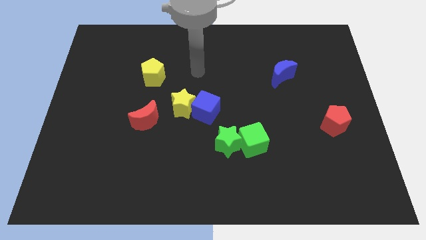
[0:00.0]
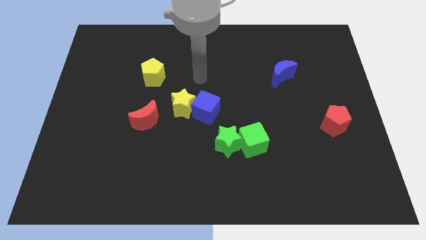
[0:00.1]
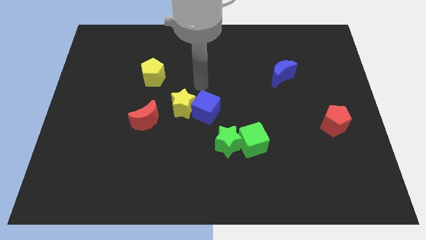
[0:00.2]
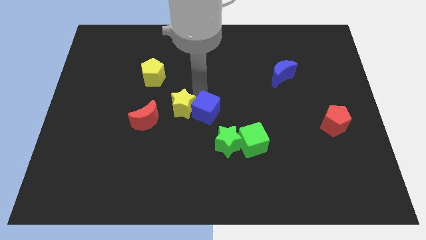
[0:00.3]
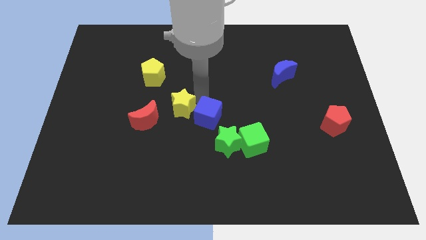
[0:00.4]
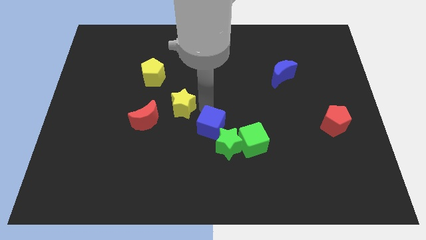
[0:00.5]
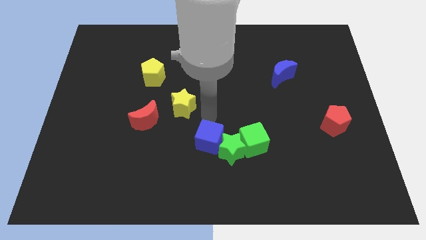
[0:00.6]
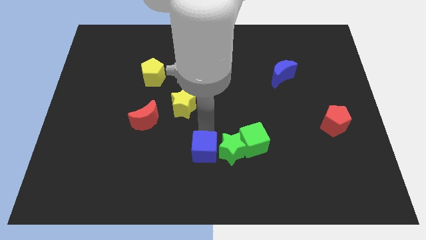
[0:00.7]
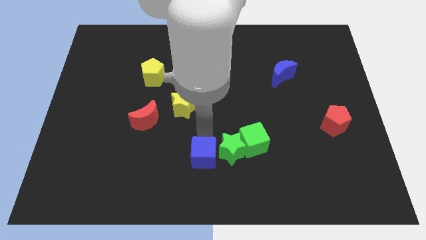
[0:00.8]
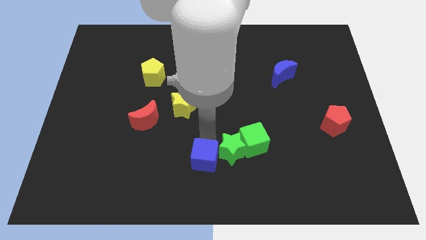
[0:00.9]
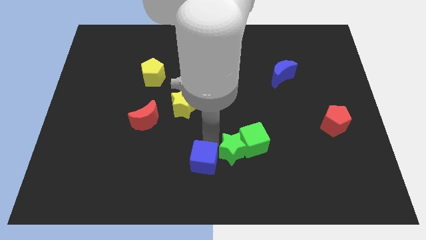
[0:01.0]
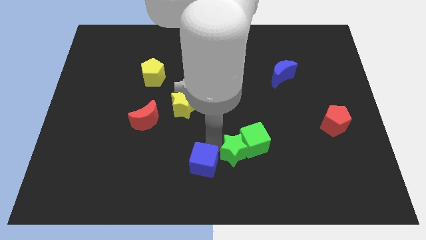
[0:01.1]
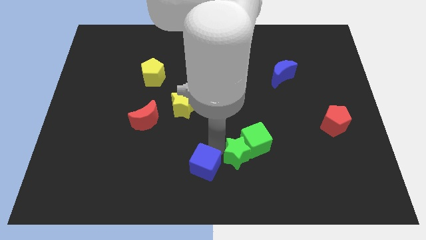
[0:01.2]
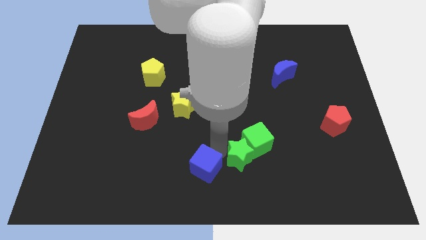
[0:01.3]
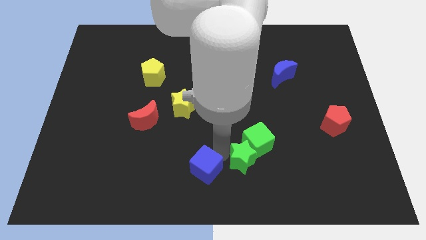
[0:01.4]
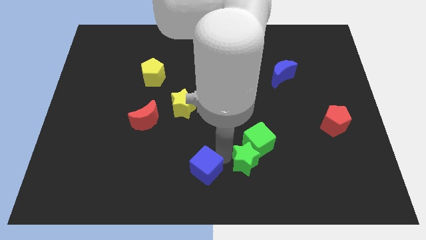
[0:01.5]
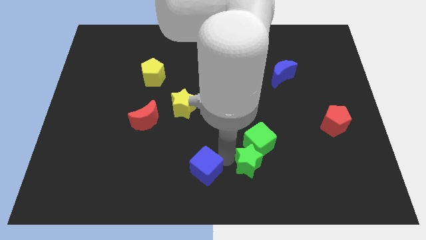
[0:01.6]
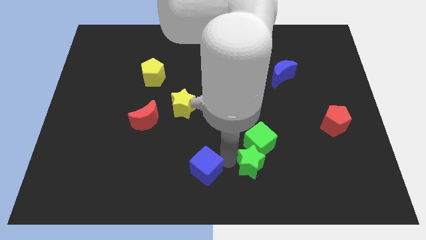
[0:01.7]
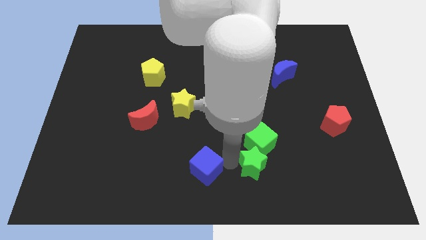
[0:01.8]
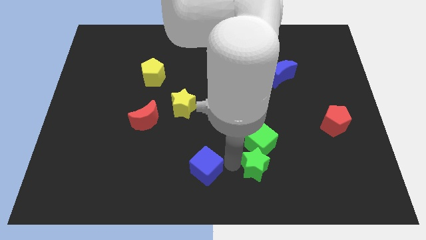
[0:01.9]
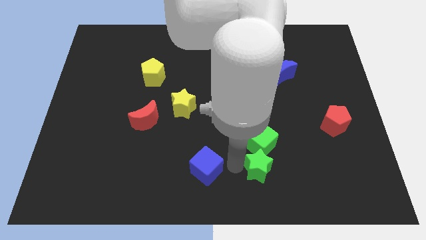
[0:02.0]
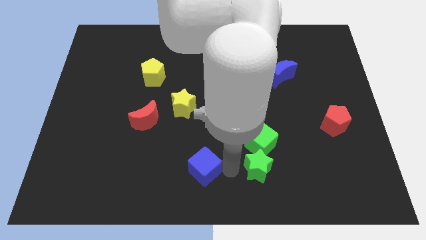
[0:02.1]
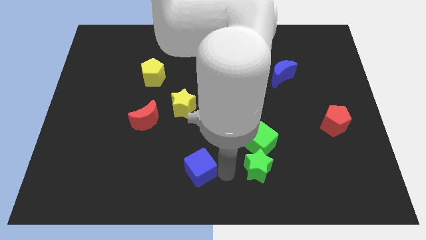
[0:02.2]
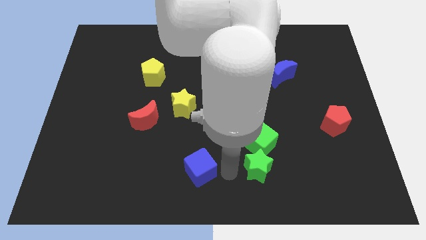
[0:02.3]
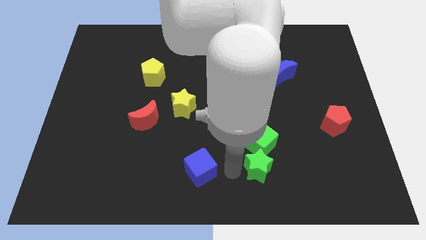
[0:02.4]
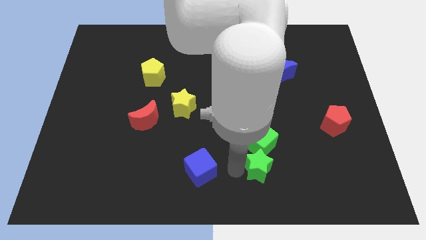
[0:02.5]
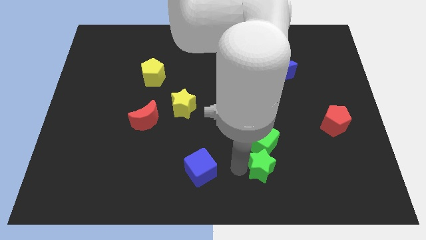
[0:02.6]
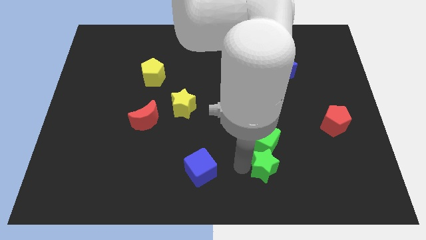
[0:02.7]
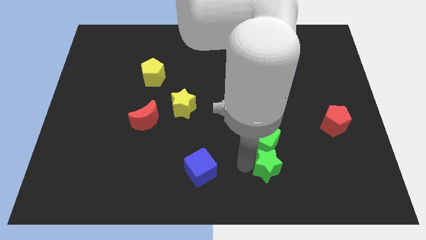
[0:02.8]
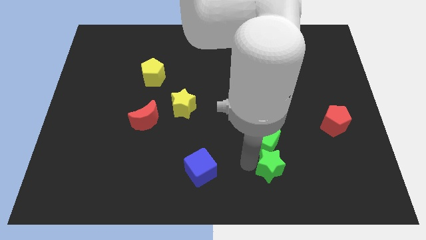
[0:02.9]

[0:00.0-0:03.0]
push the green star to the right a little

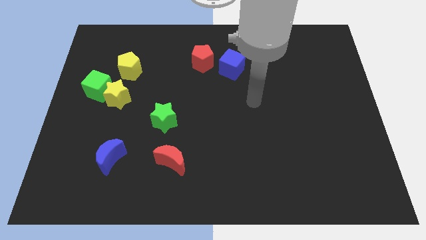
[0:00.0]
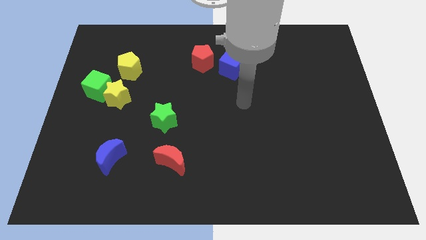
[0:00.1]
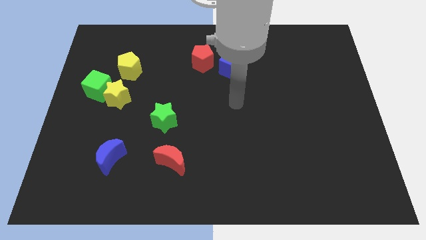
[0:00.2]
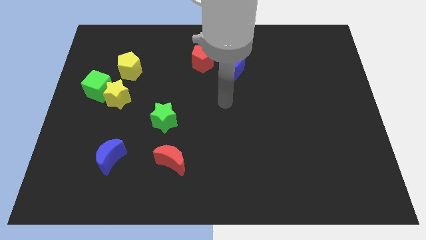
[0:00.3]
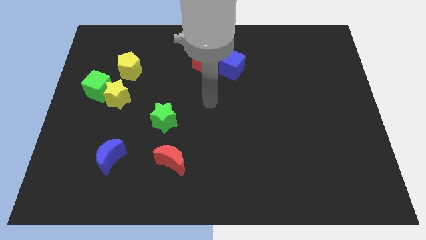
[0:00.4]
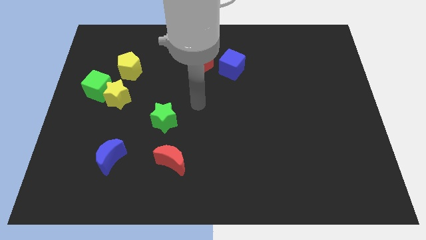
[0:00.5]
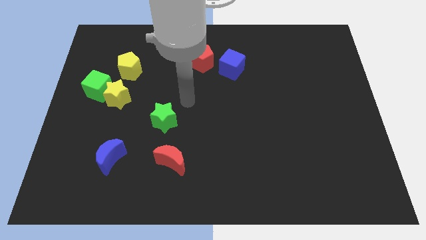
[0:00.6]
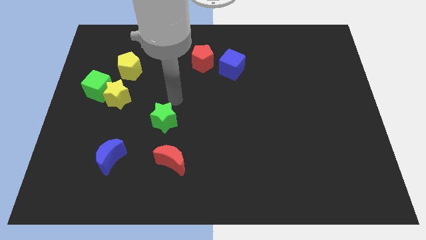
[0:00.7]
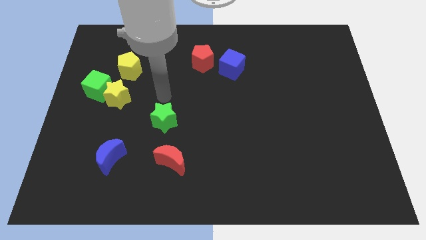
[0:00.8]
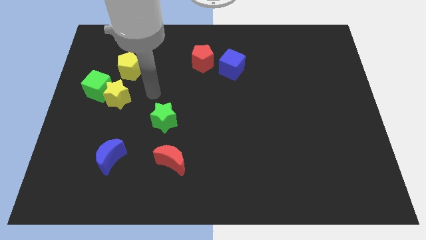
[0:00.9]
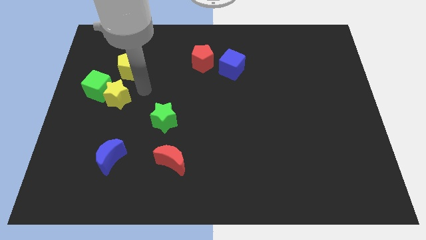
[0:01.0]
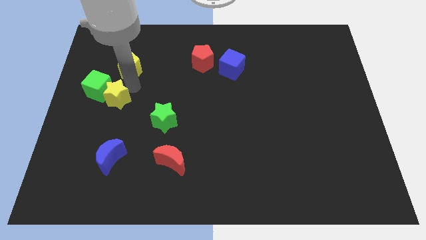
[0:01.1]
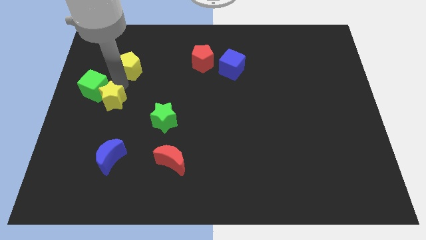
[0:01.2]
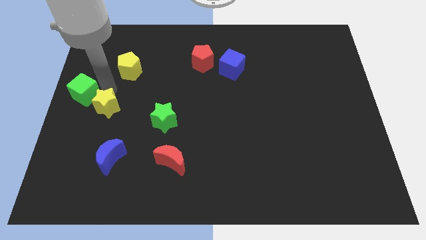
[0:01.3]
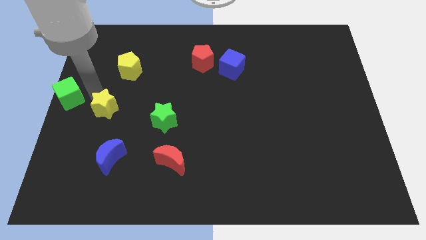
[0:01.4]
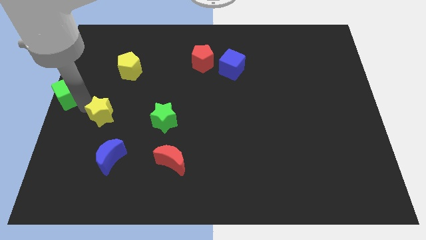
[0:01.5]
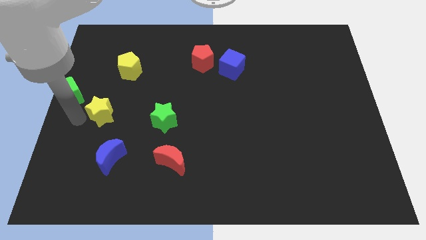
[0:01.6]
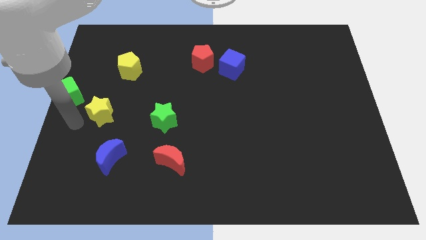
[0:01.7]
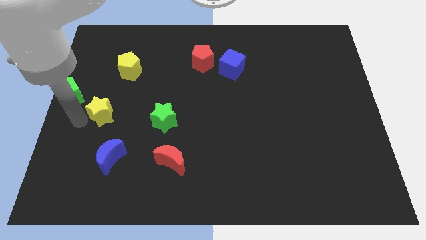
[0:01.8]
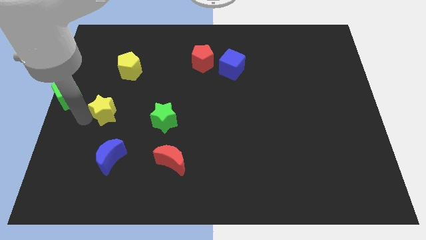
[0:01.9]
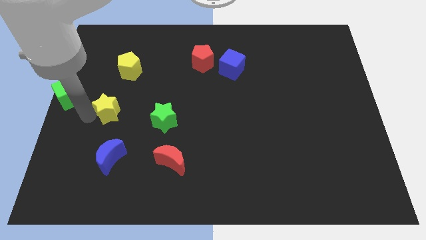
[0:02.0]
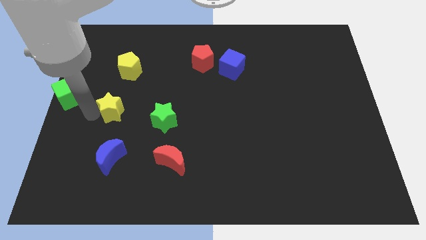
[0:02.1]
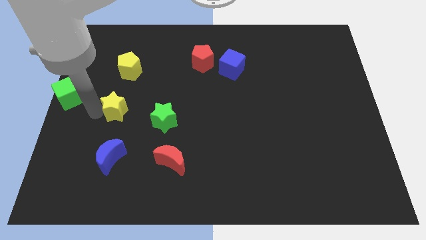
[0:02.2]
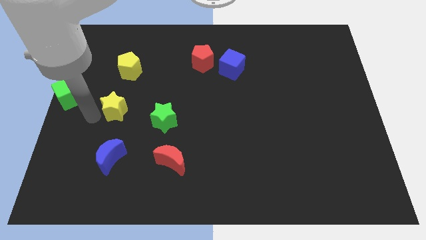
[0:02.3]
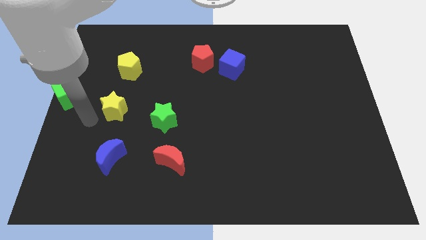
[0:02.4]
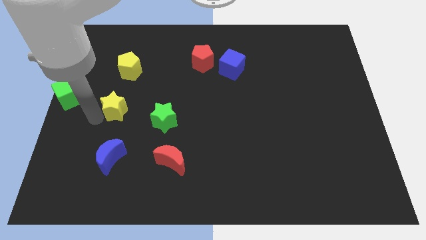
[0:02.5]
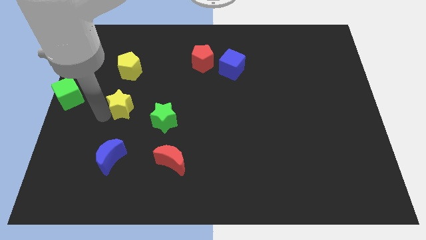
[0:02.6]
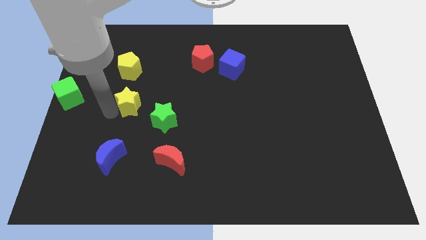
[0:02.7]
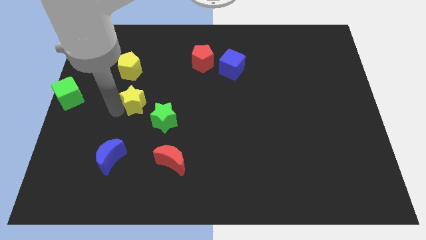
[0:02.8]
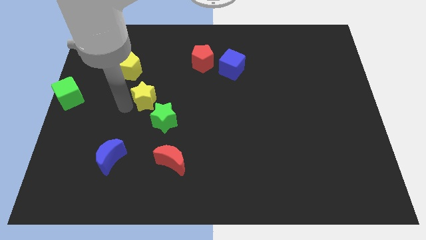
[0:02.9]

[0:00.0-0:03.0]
slide the yellow star to the right a little

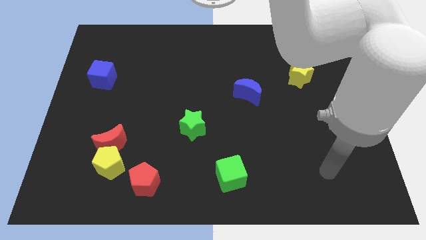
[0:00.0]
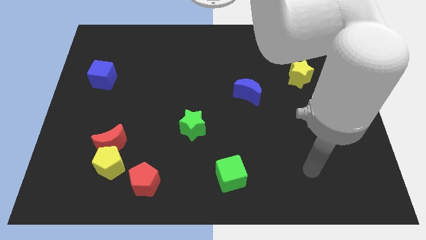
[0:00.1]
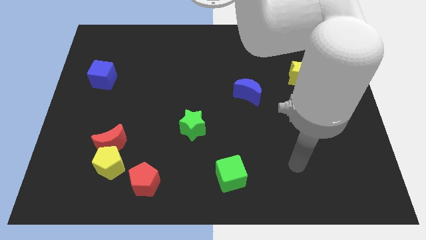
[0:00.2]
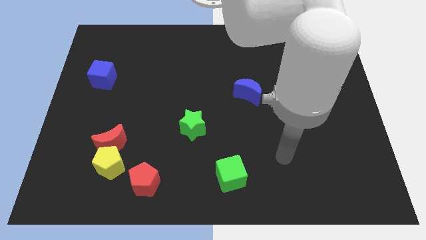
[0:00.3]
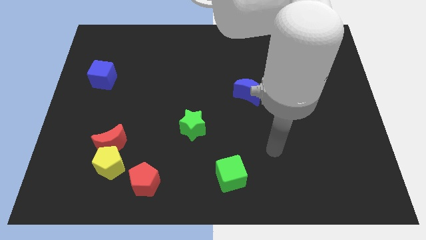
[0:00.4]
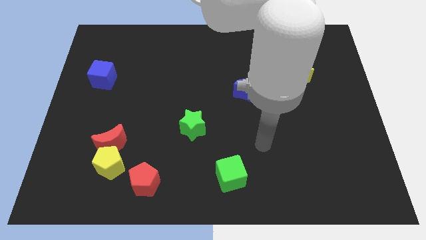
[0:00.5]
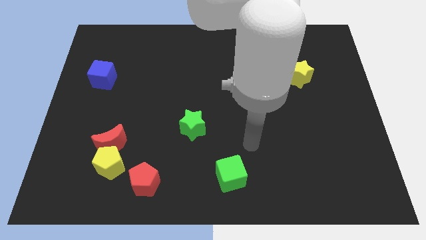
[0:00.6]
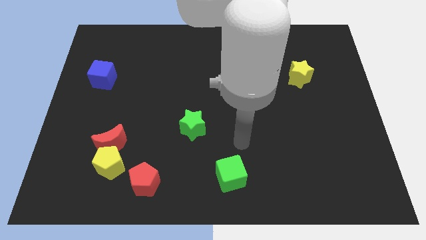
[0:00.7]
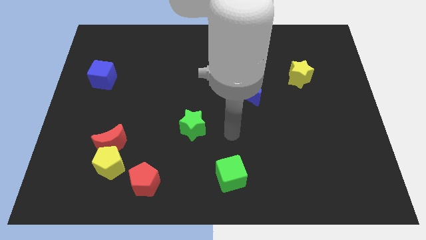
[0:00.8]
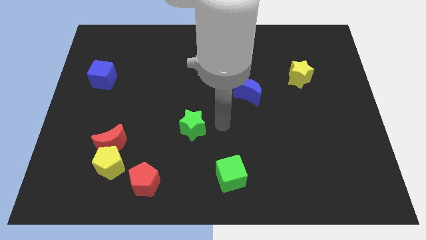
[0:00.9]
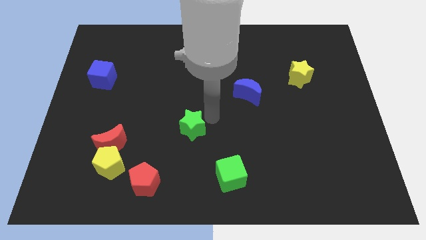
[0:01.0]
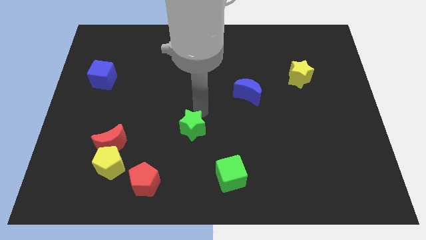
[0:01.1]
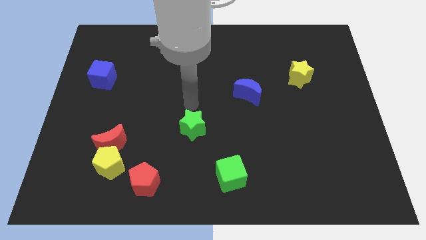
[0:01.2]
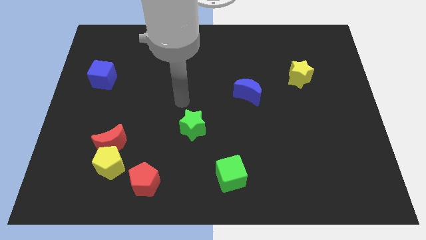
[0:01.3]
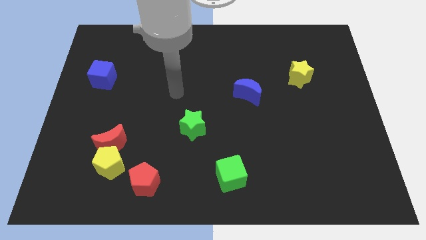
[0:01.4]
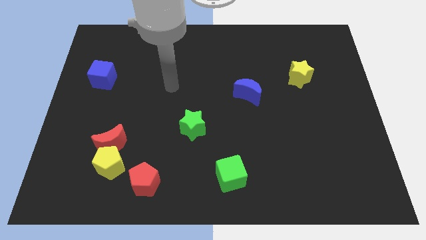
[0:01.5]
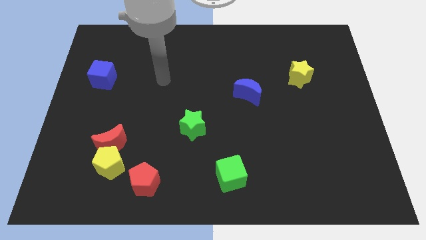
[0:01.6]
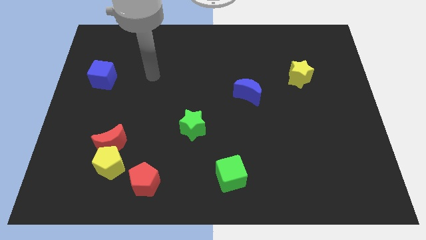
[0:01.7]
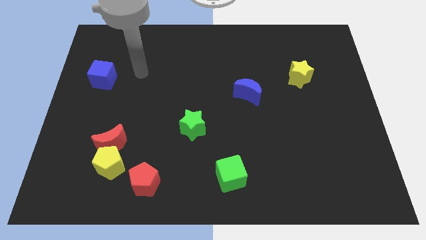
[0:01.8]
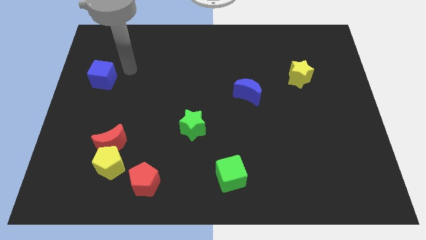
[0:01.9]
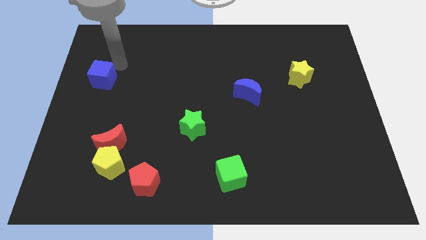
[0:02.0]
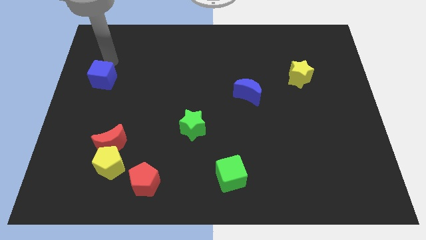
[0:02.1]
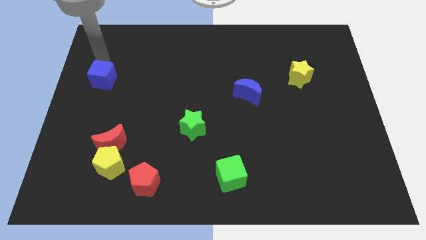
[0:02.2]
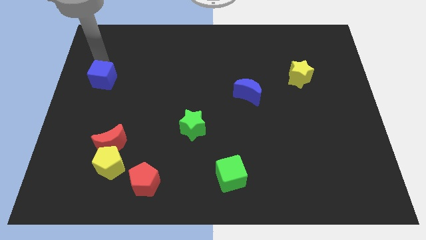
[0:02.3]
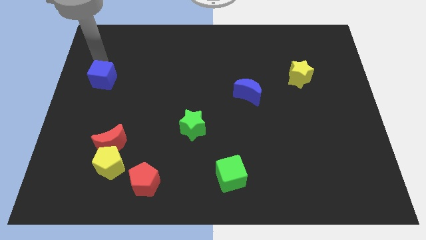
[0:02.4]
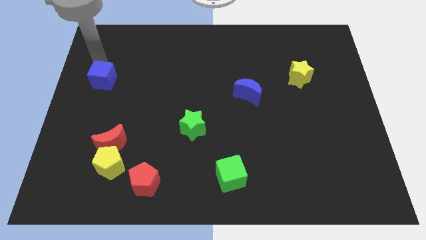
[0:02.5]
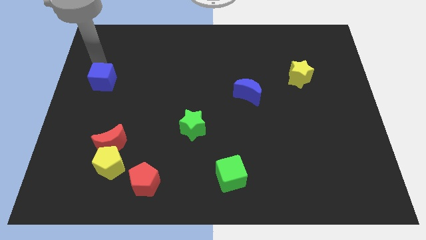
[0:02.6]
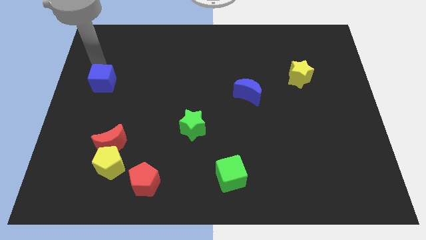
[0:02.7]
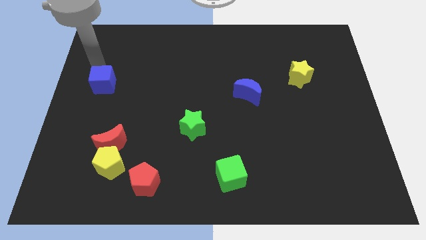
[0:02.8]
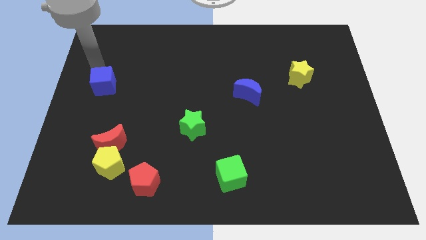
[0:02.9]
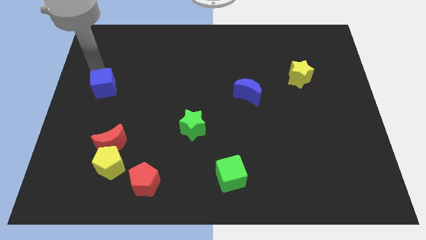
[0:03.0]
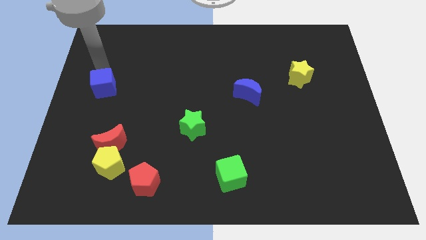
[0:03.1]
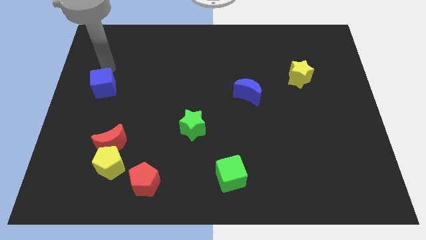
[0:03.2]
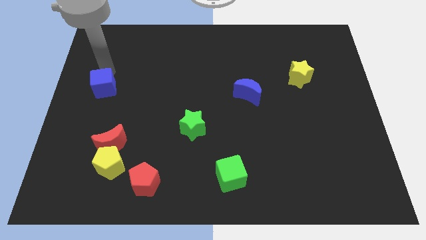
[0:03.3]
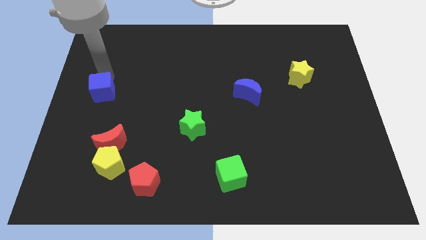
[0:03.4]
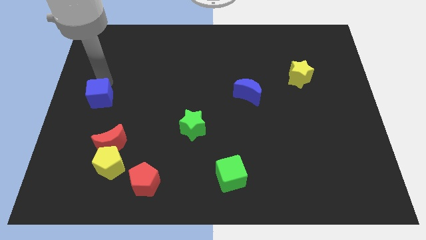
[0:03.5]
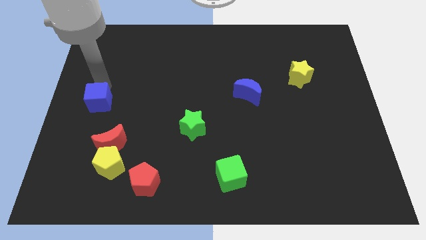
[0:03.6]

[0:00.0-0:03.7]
slightly push the blue cube down
